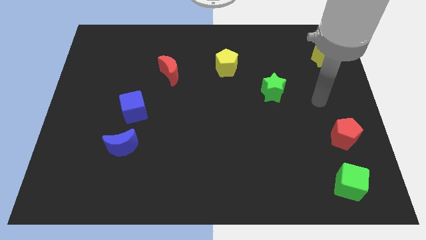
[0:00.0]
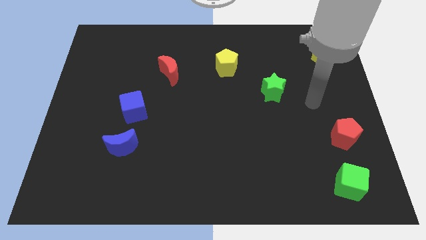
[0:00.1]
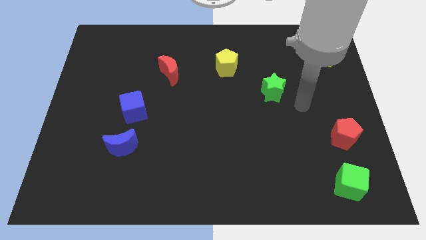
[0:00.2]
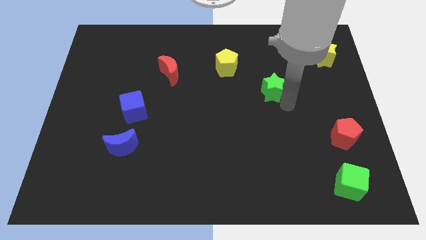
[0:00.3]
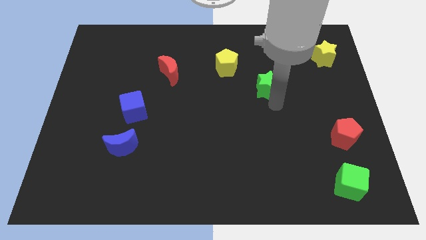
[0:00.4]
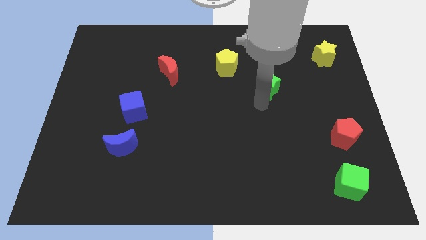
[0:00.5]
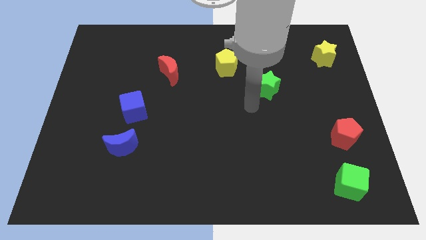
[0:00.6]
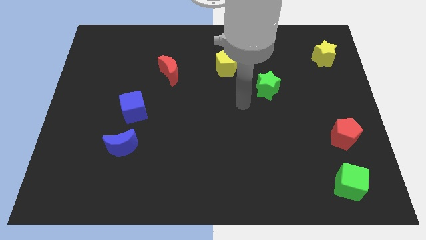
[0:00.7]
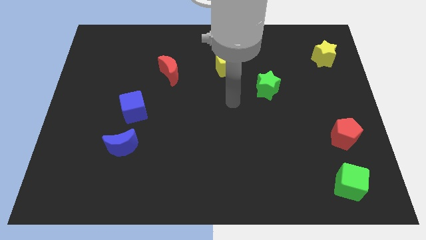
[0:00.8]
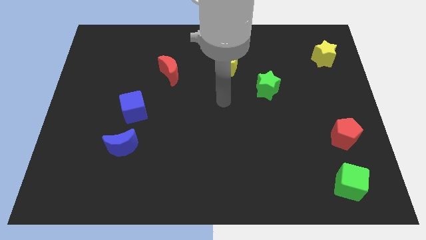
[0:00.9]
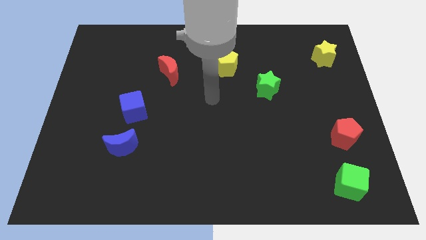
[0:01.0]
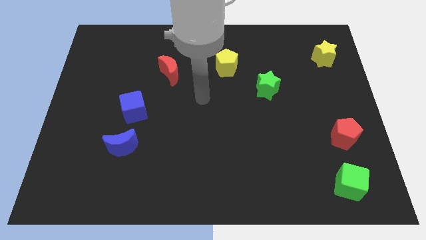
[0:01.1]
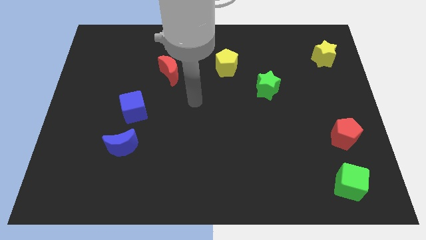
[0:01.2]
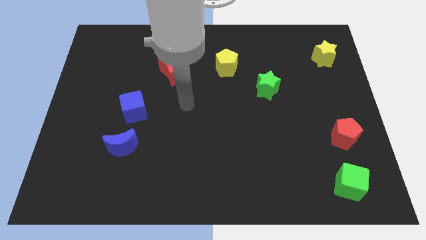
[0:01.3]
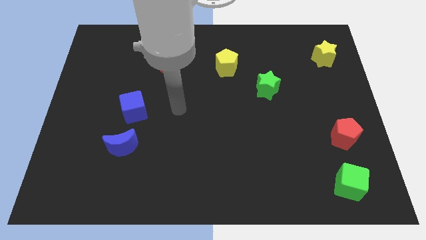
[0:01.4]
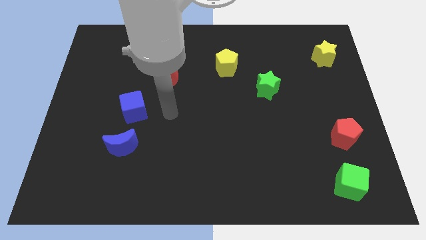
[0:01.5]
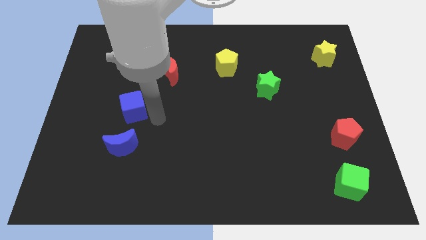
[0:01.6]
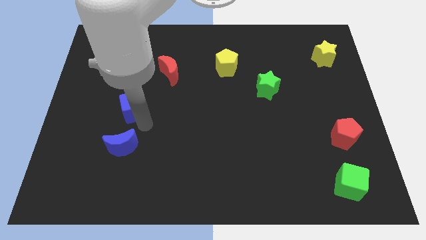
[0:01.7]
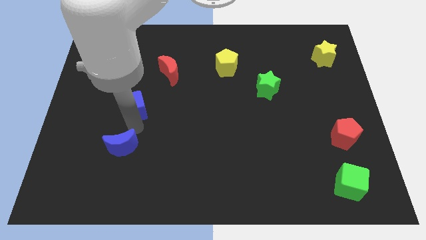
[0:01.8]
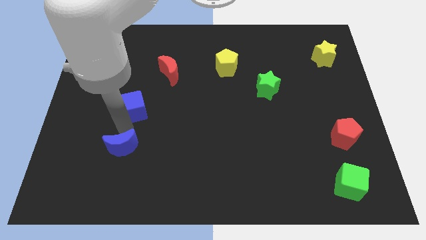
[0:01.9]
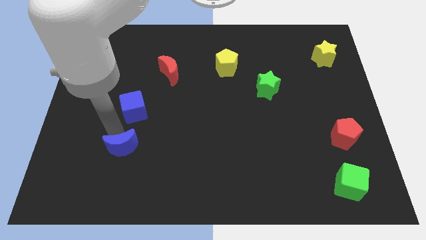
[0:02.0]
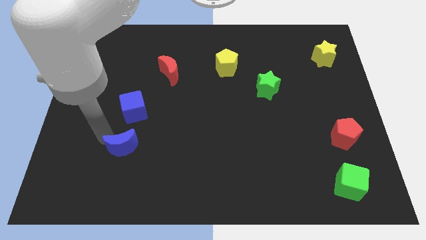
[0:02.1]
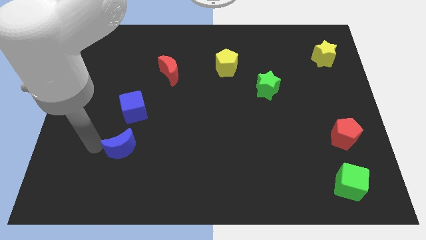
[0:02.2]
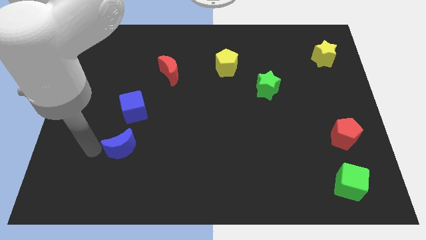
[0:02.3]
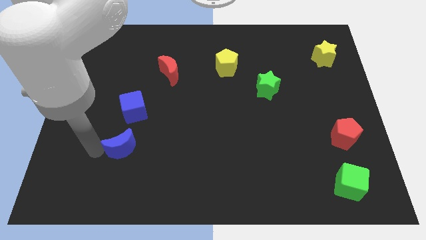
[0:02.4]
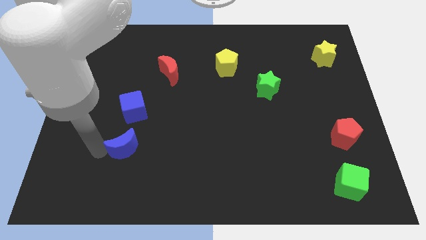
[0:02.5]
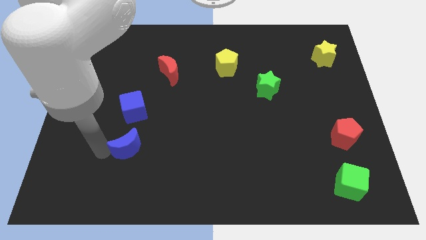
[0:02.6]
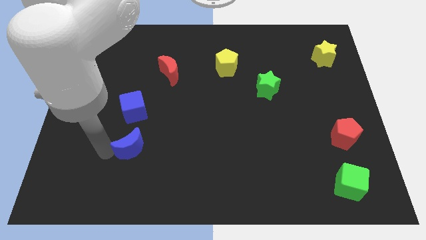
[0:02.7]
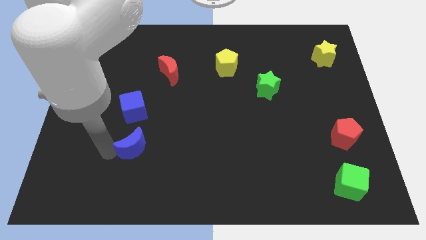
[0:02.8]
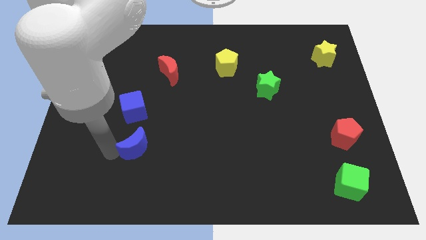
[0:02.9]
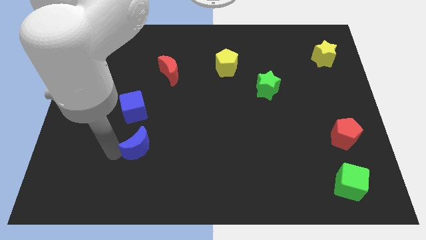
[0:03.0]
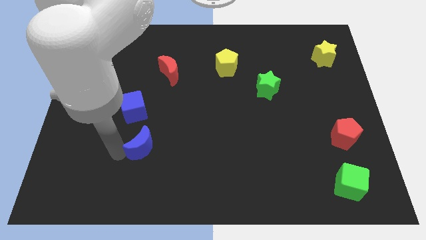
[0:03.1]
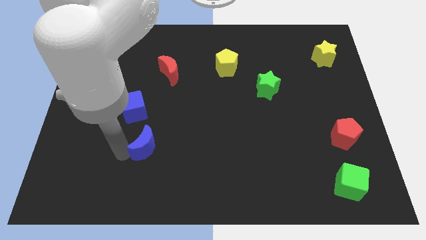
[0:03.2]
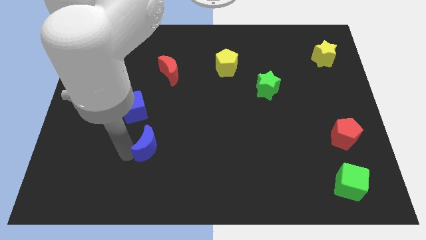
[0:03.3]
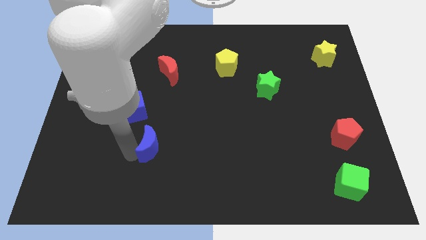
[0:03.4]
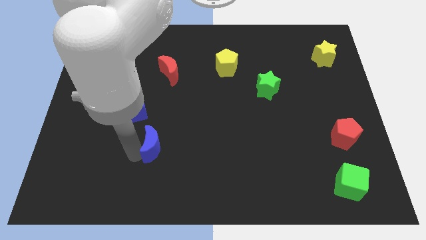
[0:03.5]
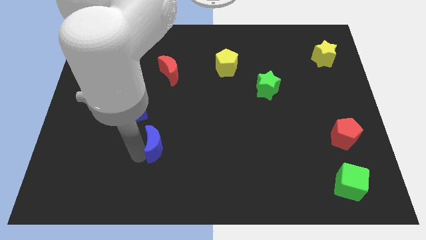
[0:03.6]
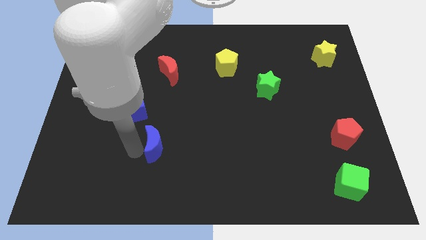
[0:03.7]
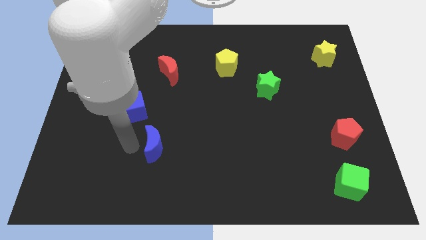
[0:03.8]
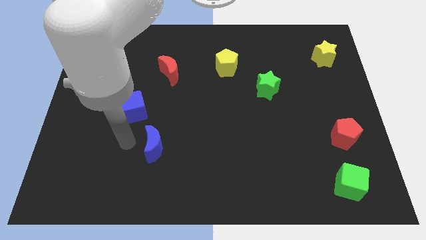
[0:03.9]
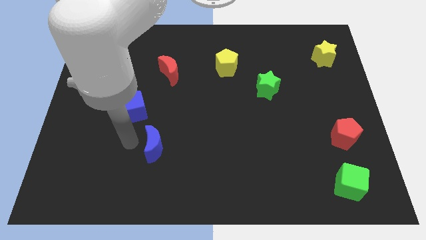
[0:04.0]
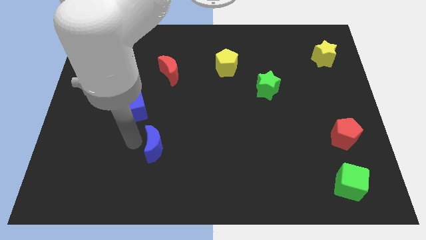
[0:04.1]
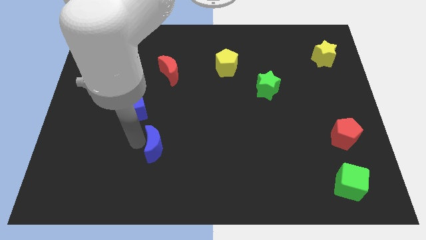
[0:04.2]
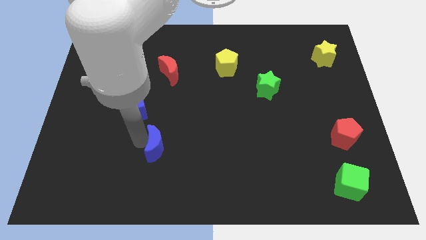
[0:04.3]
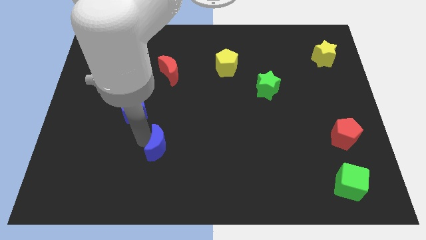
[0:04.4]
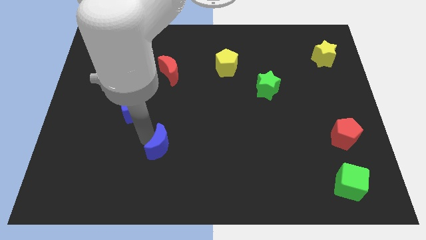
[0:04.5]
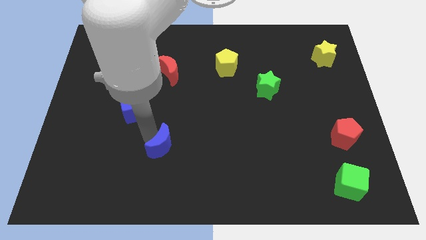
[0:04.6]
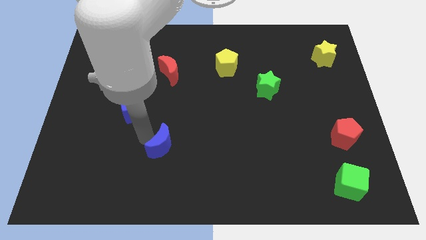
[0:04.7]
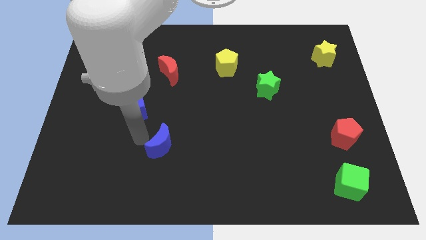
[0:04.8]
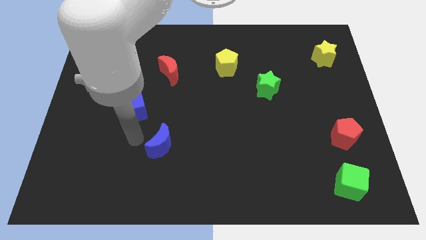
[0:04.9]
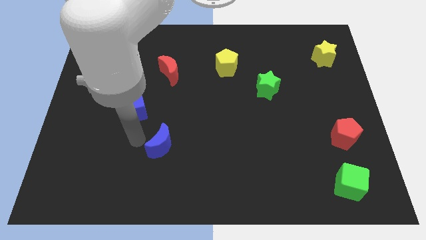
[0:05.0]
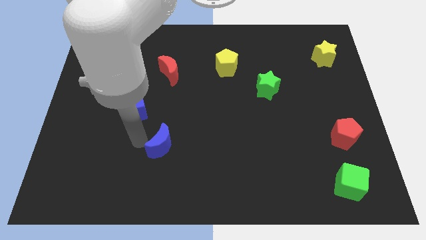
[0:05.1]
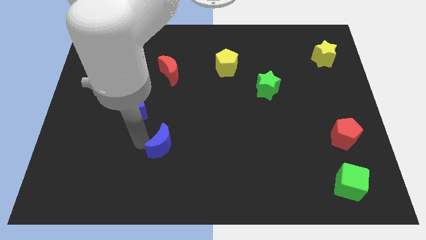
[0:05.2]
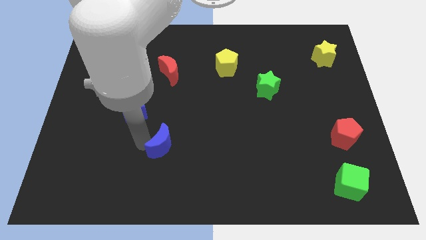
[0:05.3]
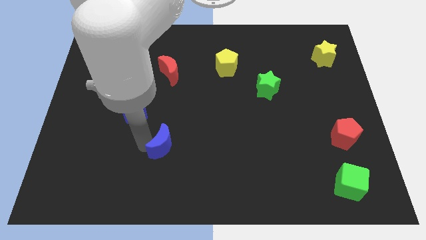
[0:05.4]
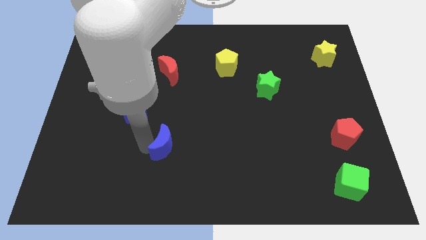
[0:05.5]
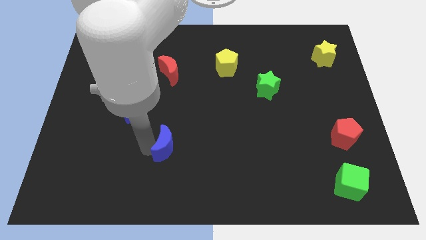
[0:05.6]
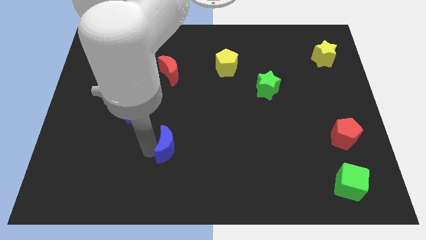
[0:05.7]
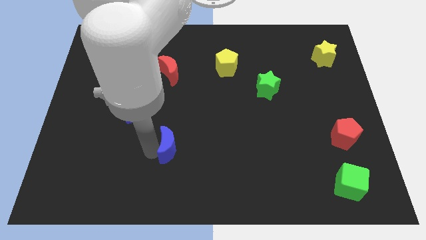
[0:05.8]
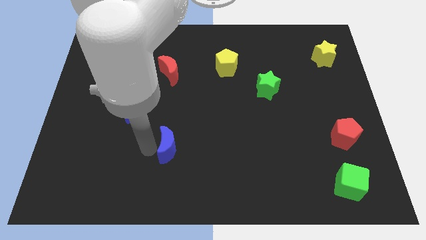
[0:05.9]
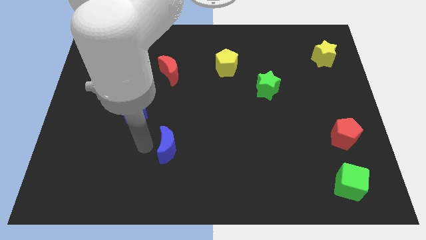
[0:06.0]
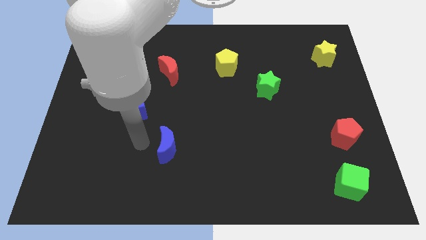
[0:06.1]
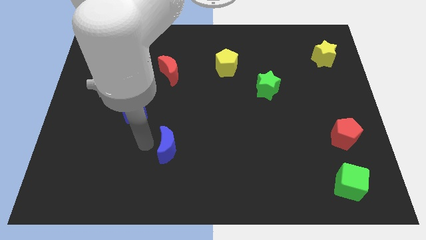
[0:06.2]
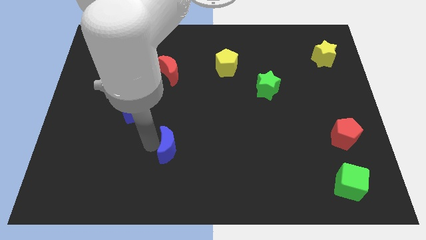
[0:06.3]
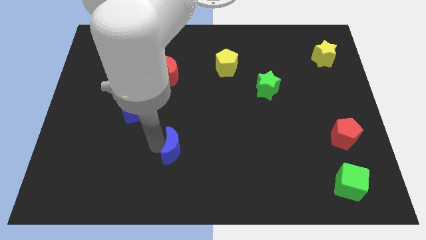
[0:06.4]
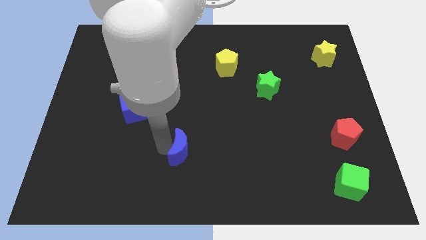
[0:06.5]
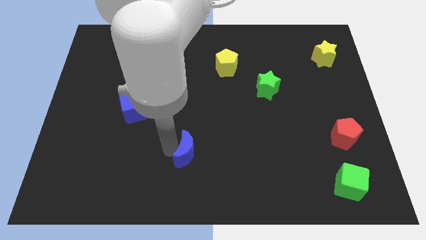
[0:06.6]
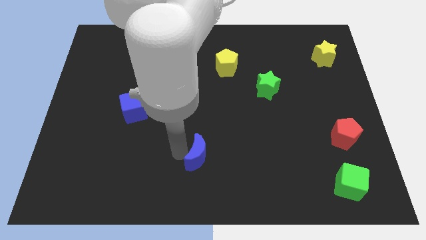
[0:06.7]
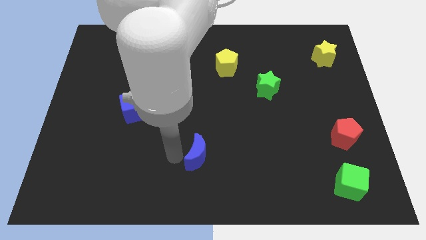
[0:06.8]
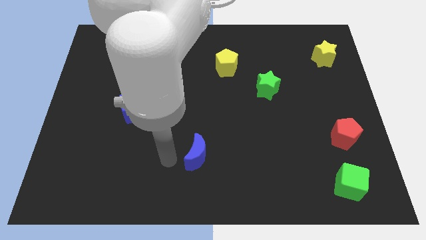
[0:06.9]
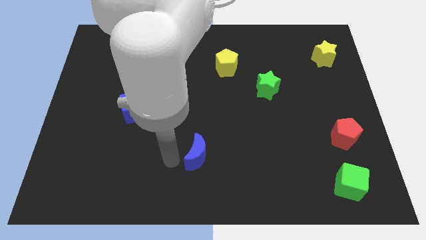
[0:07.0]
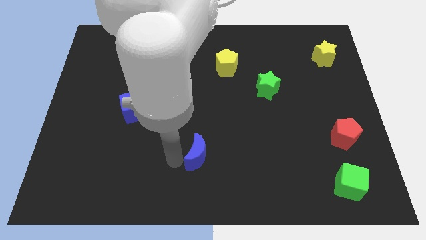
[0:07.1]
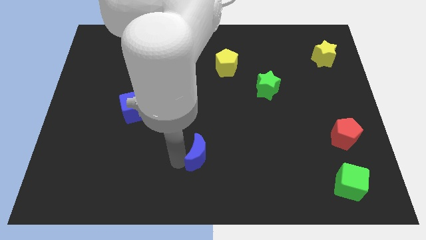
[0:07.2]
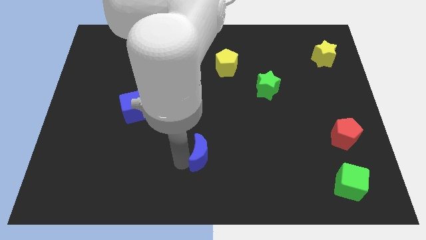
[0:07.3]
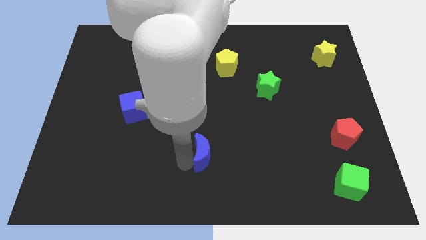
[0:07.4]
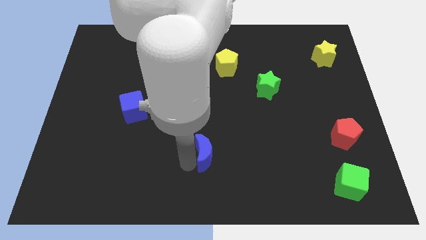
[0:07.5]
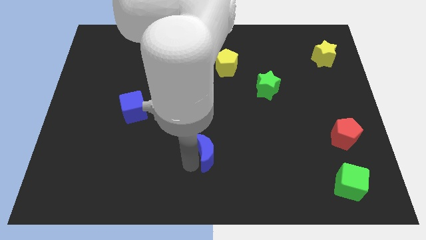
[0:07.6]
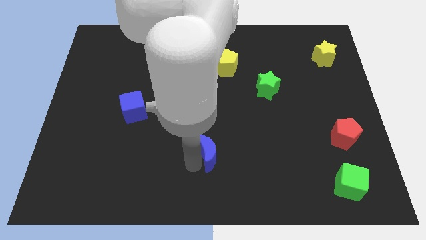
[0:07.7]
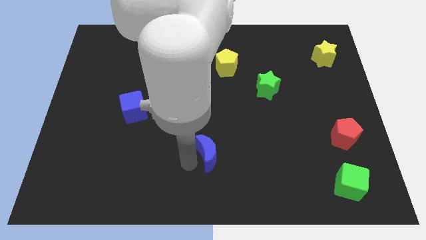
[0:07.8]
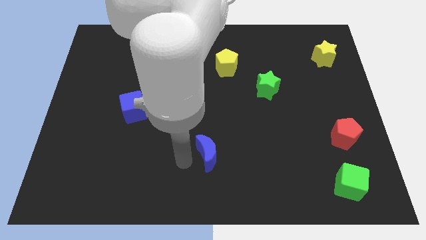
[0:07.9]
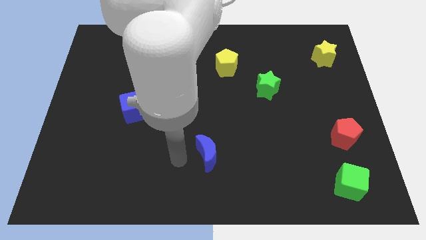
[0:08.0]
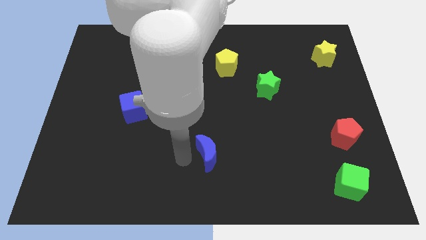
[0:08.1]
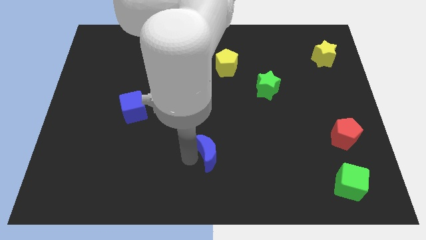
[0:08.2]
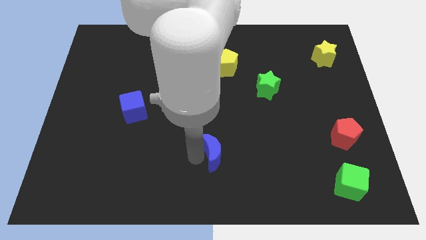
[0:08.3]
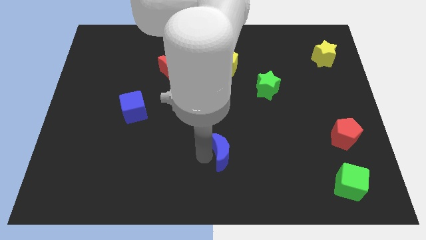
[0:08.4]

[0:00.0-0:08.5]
slide the blue moon to the right
